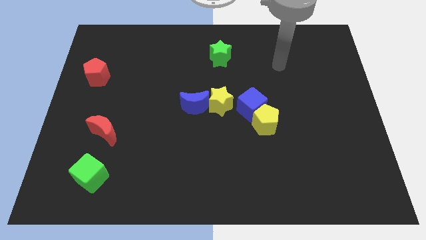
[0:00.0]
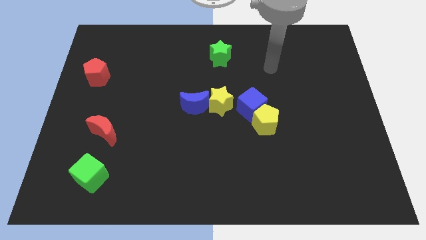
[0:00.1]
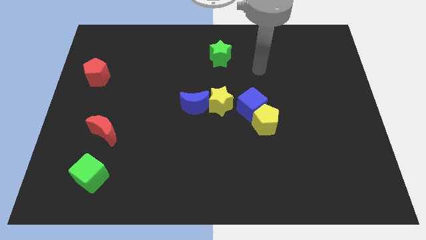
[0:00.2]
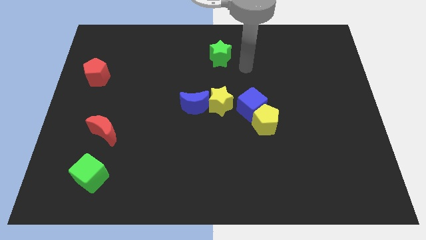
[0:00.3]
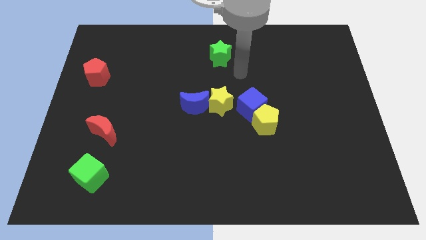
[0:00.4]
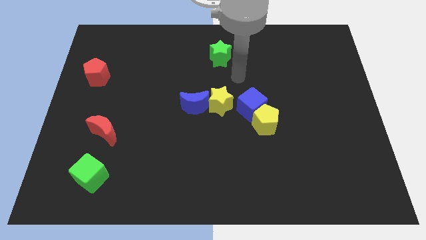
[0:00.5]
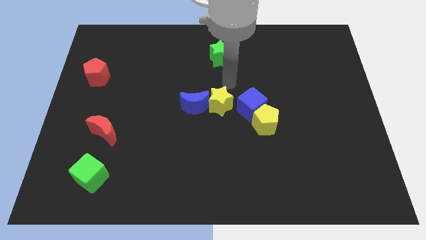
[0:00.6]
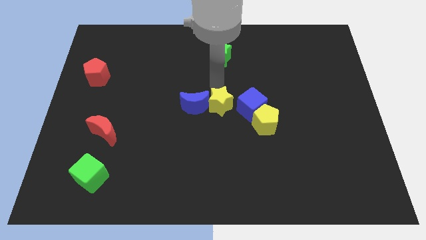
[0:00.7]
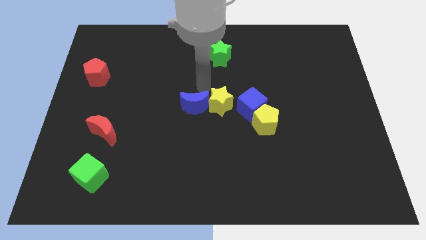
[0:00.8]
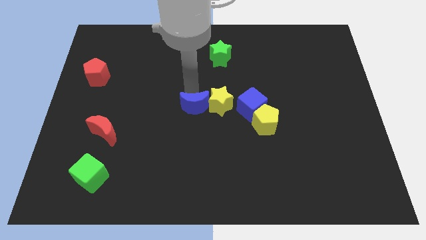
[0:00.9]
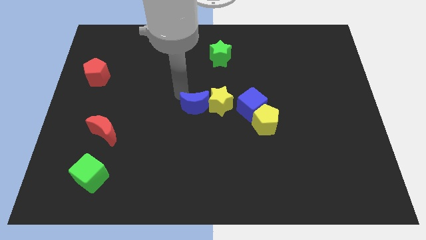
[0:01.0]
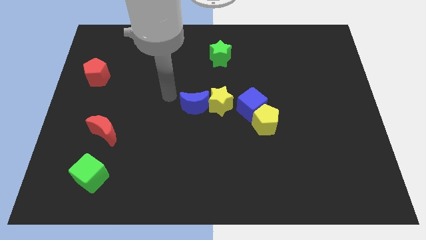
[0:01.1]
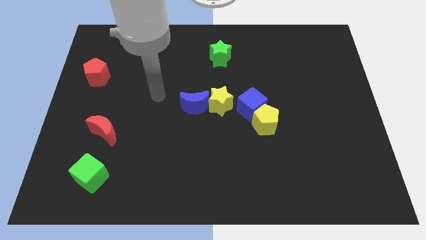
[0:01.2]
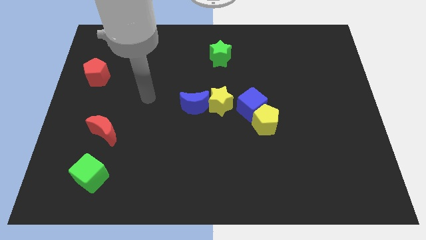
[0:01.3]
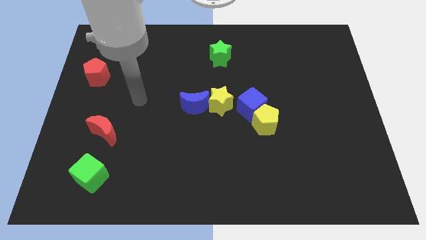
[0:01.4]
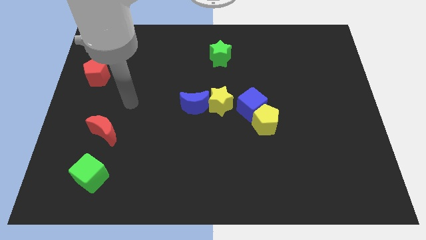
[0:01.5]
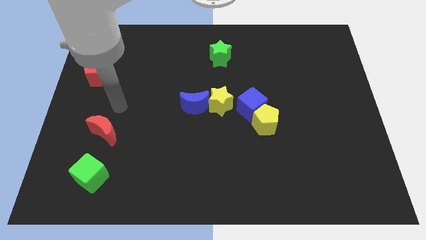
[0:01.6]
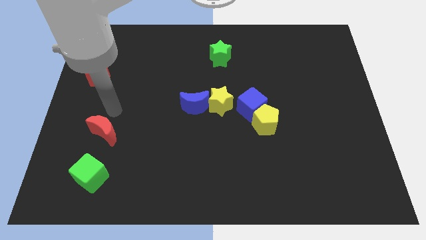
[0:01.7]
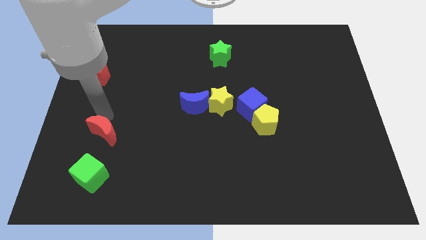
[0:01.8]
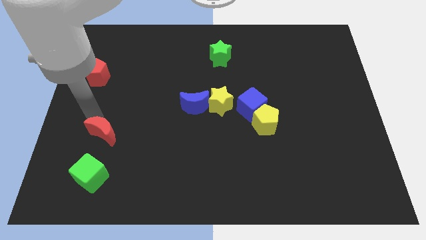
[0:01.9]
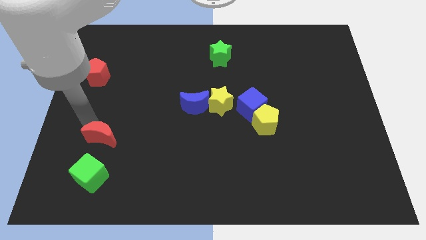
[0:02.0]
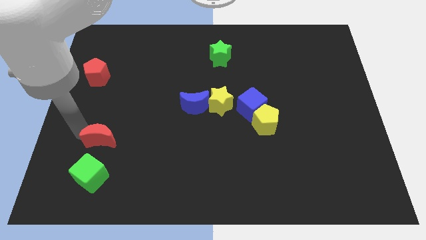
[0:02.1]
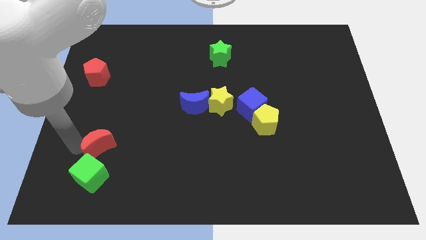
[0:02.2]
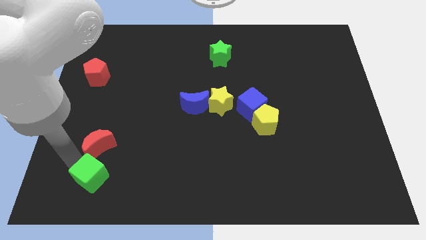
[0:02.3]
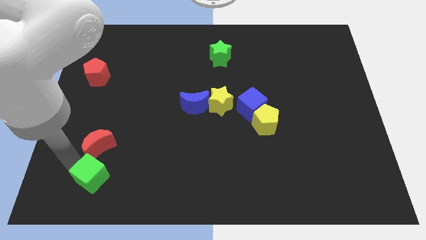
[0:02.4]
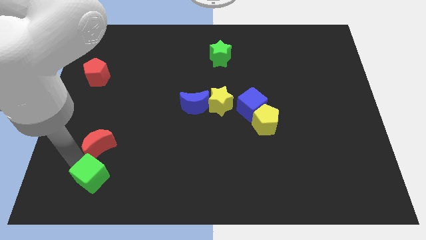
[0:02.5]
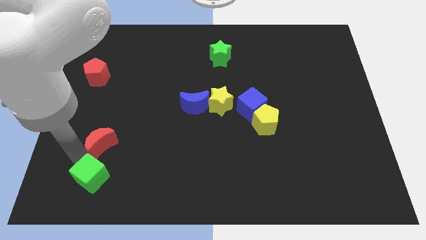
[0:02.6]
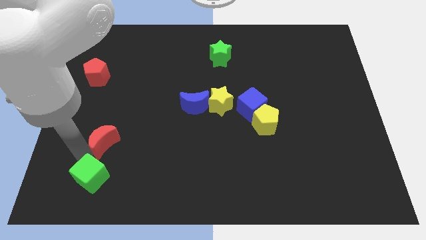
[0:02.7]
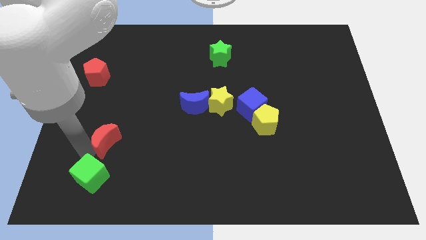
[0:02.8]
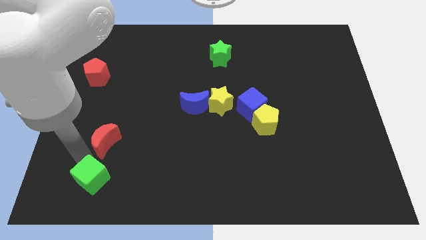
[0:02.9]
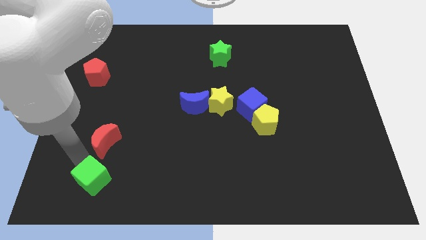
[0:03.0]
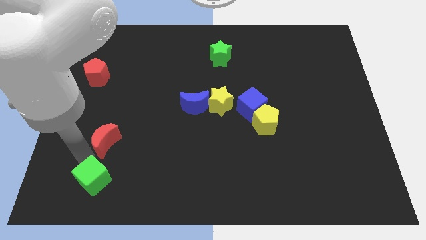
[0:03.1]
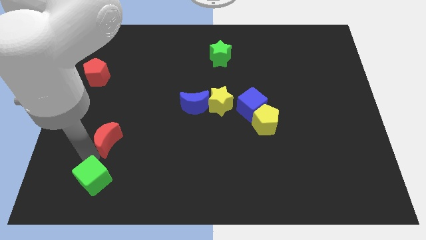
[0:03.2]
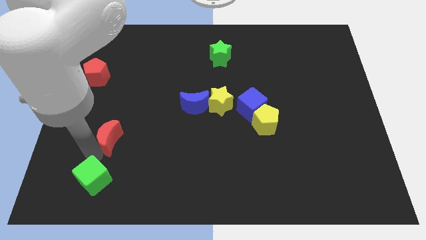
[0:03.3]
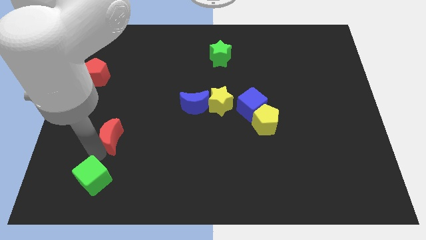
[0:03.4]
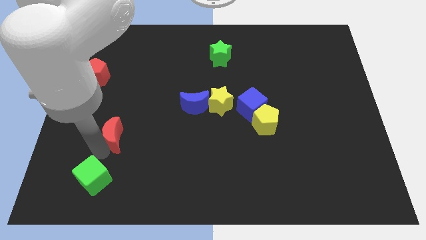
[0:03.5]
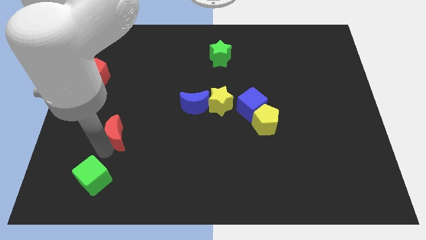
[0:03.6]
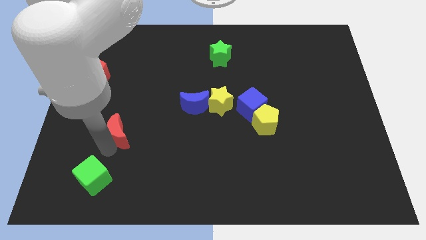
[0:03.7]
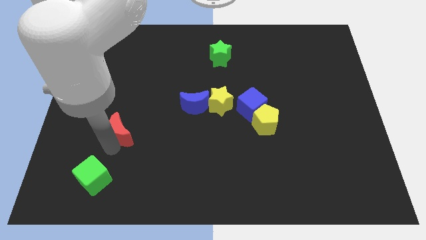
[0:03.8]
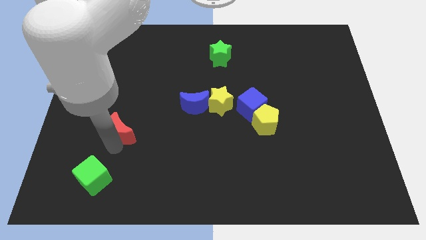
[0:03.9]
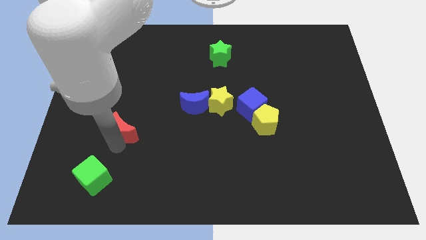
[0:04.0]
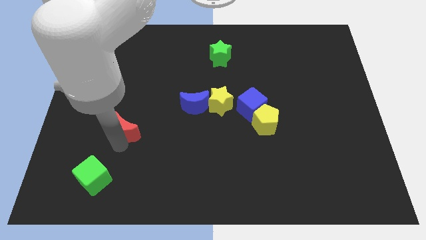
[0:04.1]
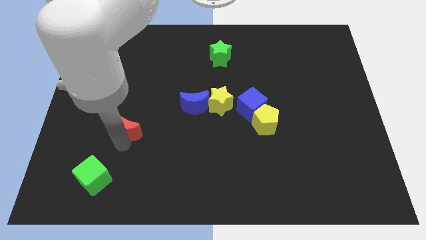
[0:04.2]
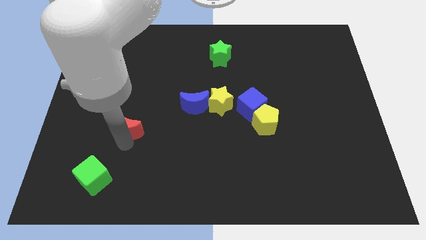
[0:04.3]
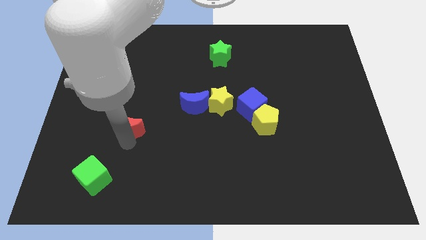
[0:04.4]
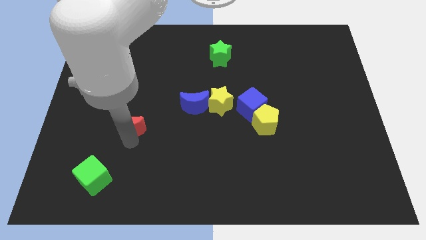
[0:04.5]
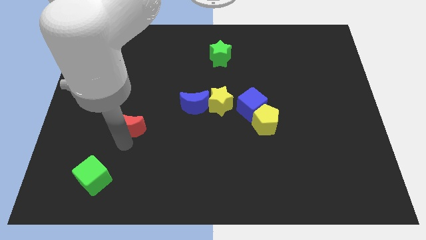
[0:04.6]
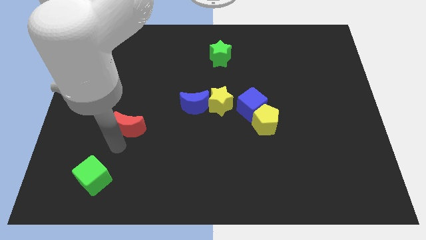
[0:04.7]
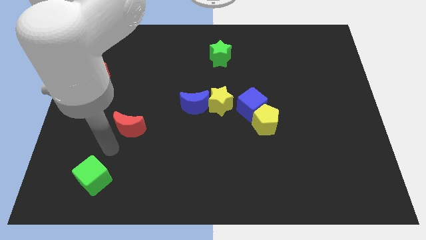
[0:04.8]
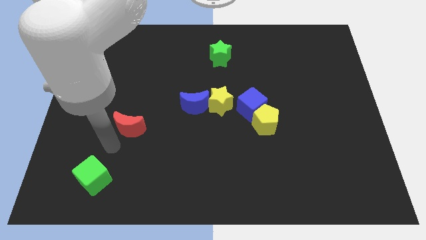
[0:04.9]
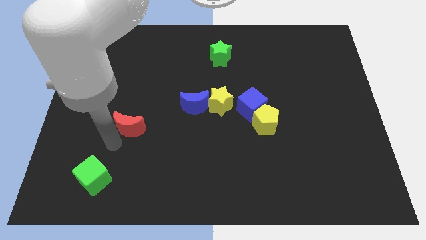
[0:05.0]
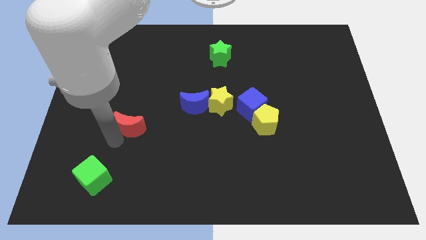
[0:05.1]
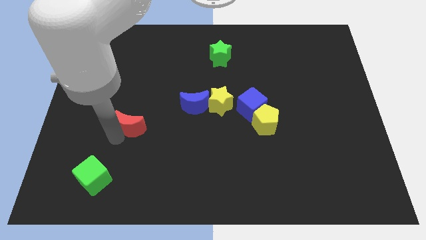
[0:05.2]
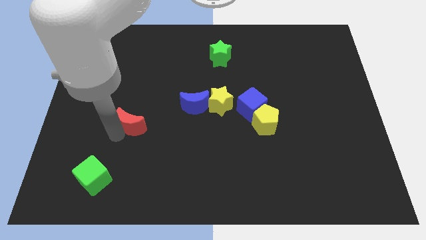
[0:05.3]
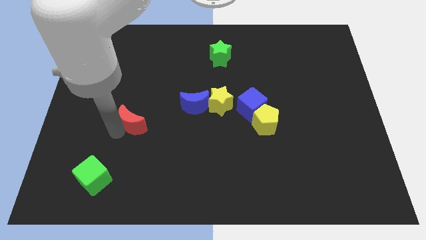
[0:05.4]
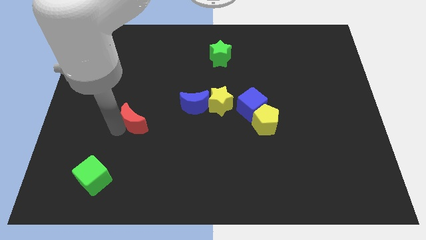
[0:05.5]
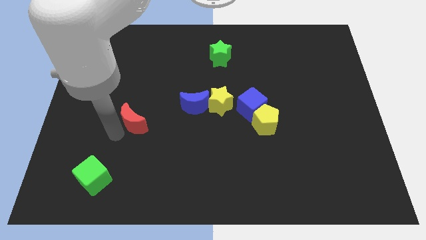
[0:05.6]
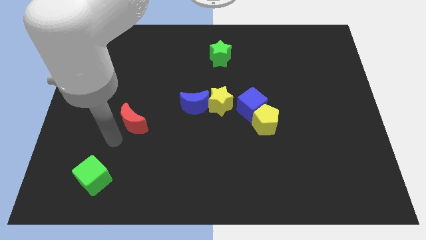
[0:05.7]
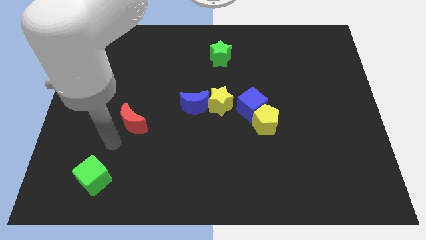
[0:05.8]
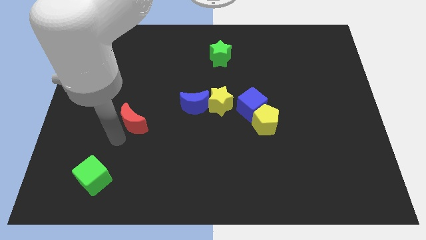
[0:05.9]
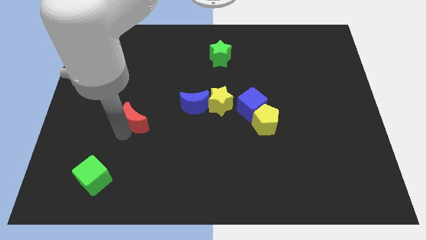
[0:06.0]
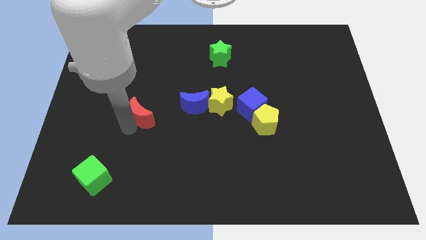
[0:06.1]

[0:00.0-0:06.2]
move the red moon to the left of the blue moon
